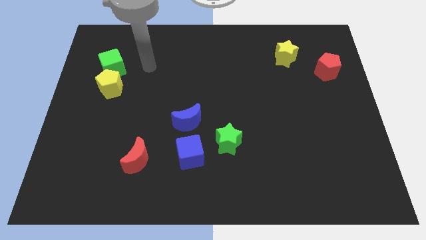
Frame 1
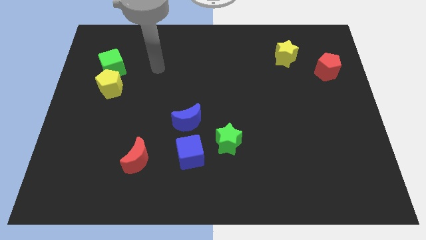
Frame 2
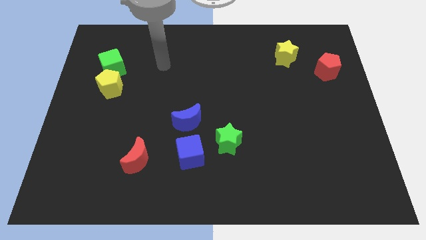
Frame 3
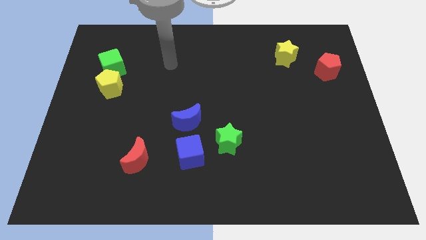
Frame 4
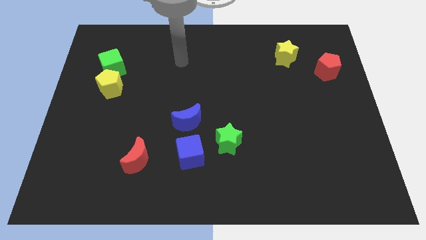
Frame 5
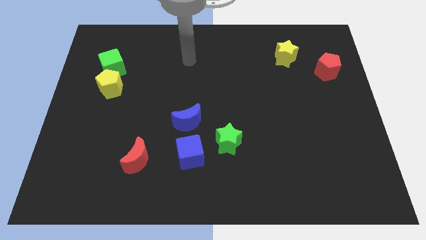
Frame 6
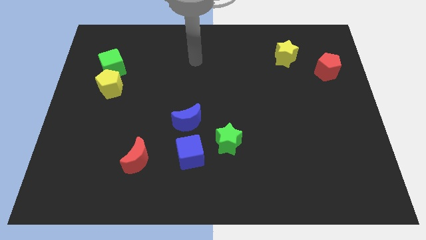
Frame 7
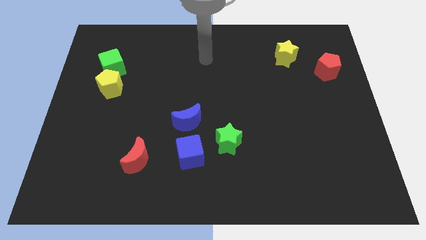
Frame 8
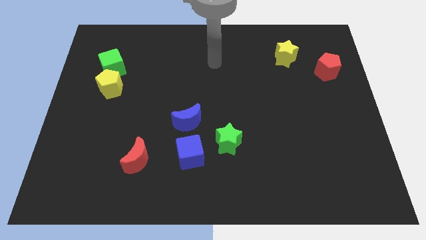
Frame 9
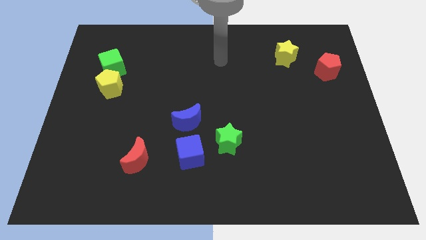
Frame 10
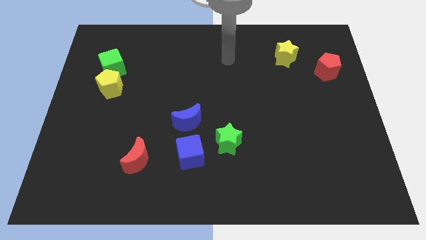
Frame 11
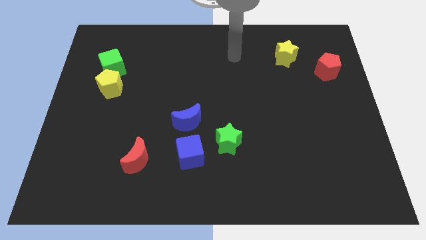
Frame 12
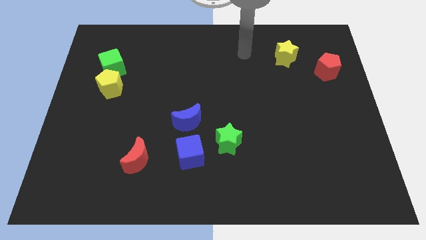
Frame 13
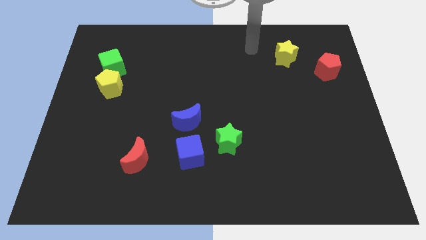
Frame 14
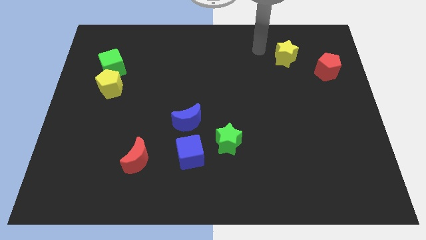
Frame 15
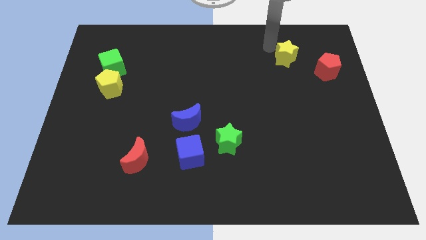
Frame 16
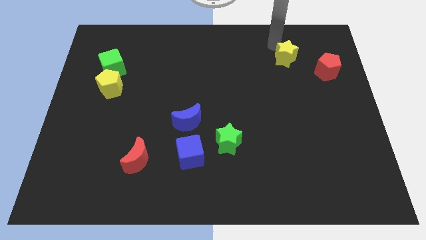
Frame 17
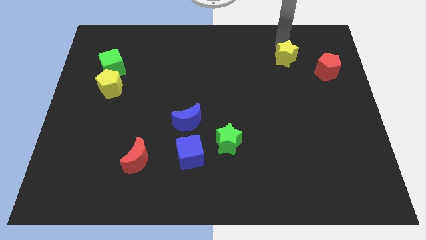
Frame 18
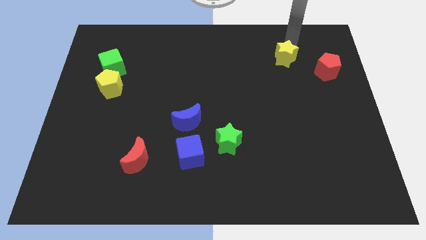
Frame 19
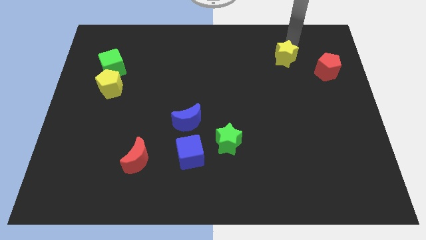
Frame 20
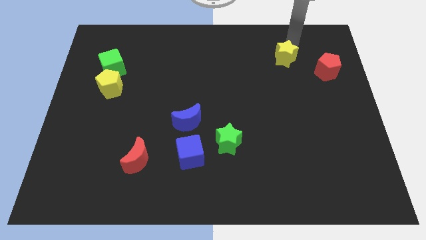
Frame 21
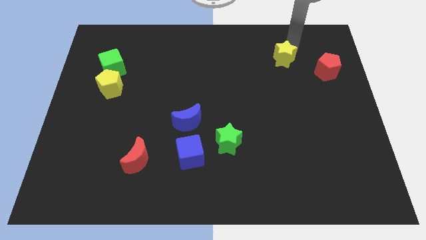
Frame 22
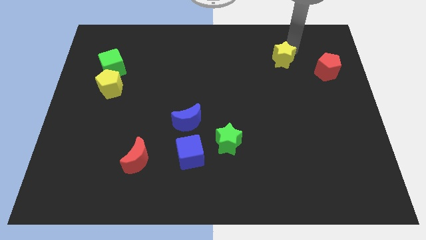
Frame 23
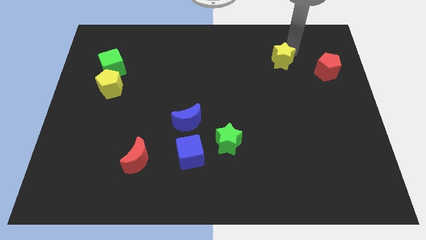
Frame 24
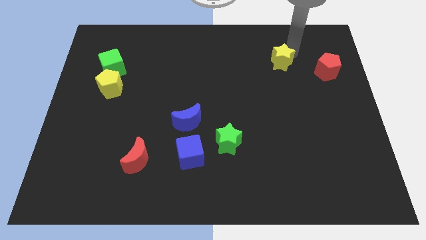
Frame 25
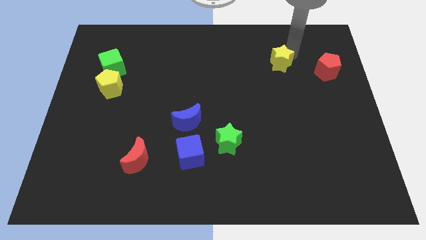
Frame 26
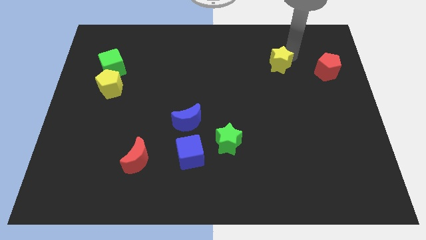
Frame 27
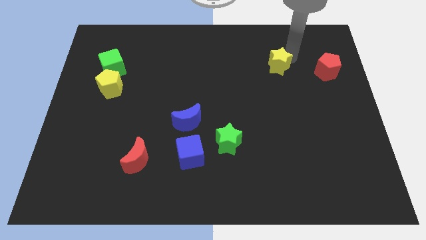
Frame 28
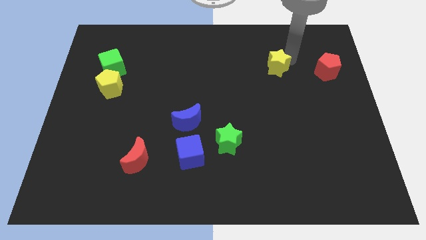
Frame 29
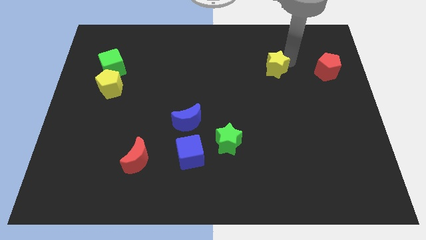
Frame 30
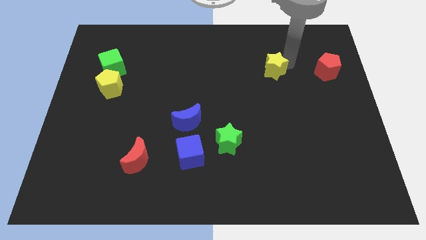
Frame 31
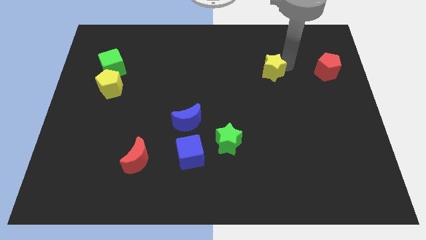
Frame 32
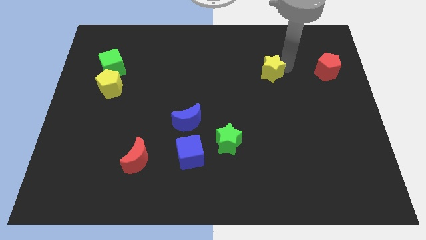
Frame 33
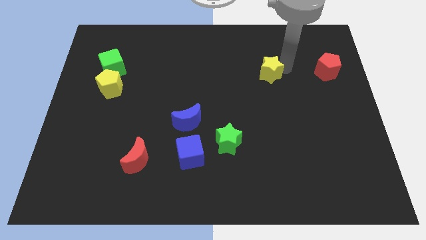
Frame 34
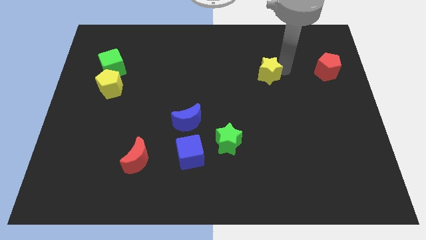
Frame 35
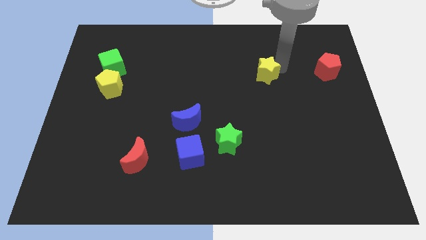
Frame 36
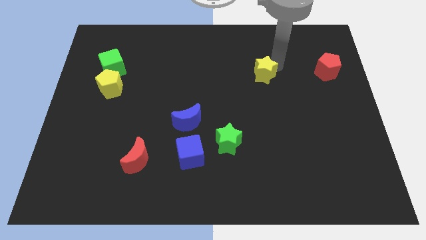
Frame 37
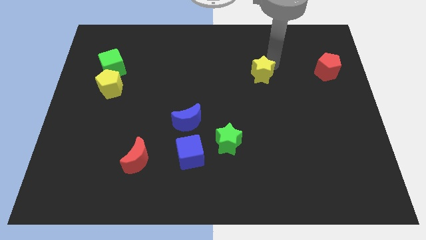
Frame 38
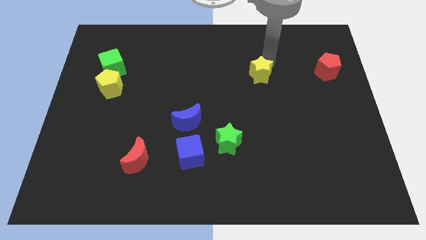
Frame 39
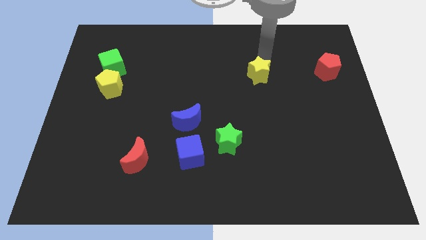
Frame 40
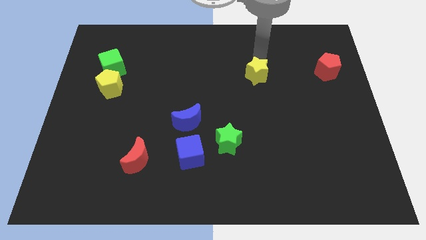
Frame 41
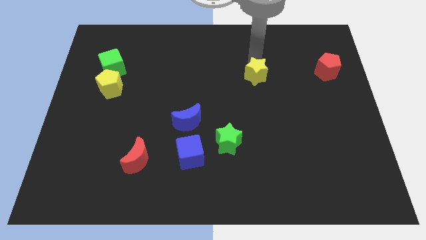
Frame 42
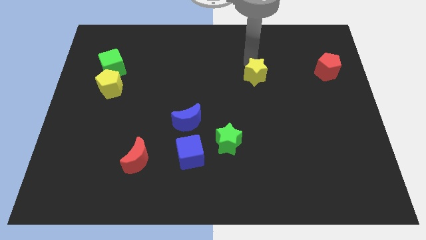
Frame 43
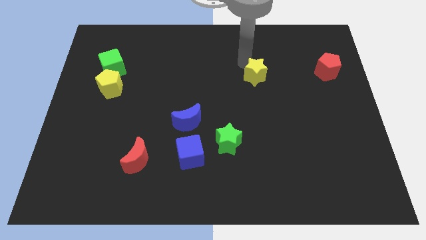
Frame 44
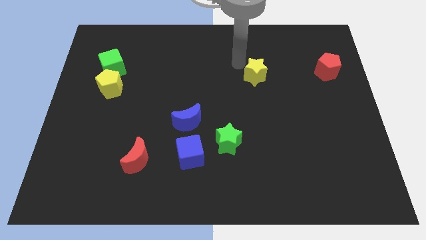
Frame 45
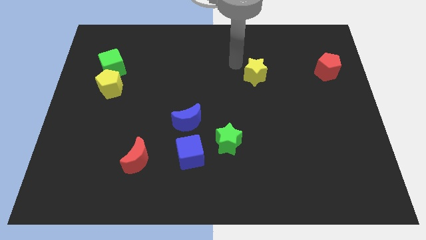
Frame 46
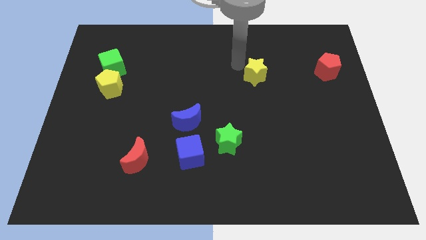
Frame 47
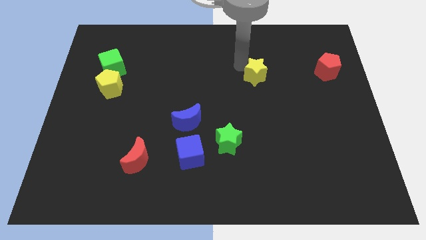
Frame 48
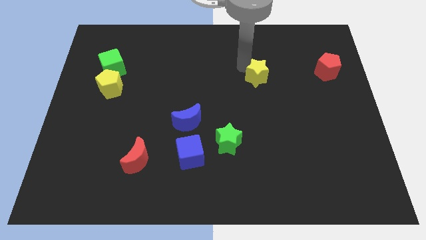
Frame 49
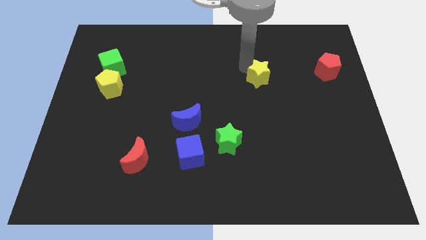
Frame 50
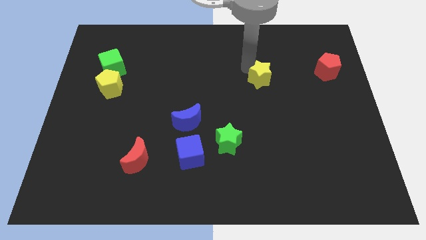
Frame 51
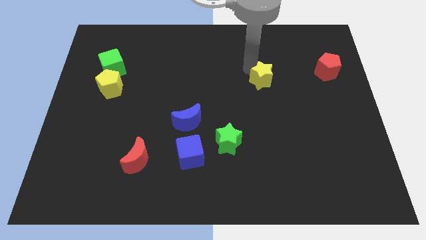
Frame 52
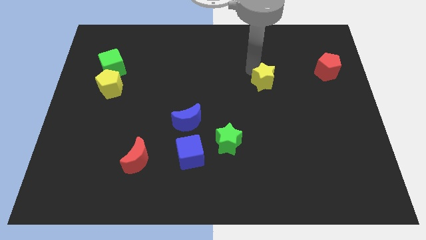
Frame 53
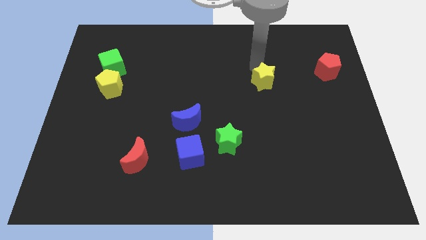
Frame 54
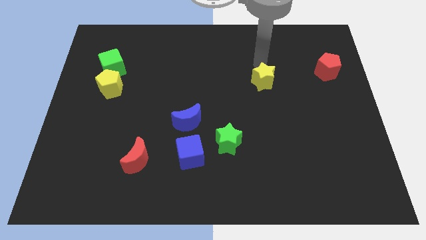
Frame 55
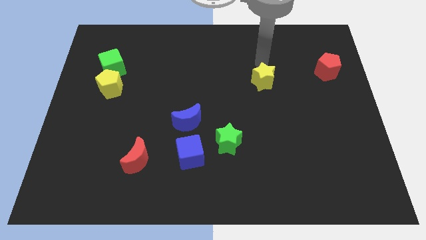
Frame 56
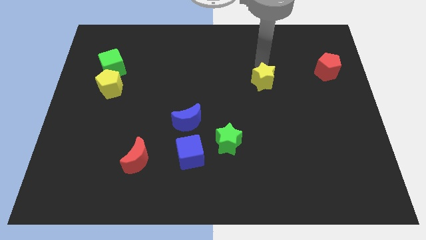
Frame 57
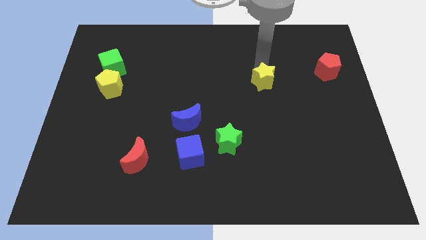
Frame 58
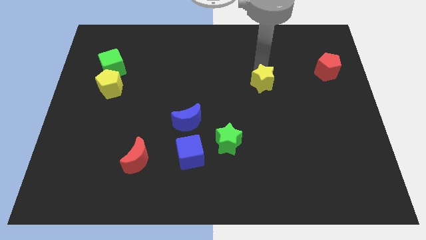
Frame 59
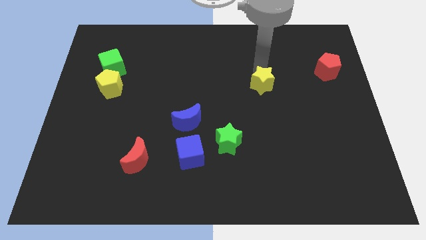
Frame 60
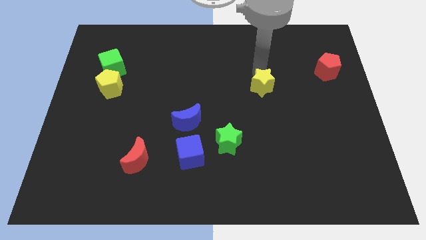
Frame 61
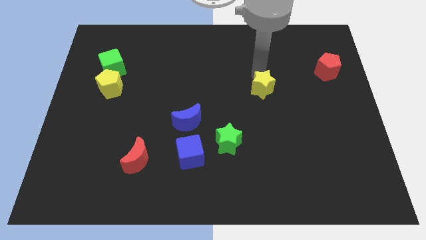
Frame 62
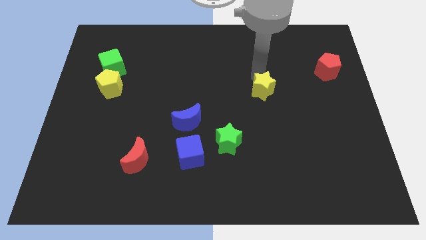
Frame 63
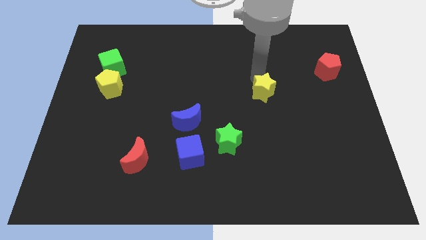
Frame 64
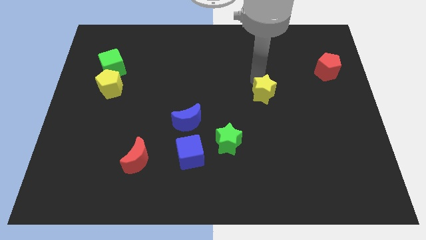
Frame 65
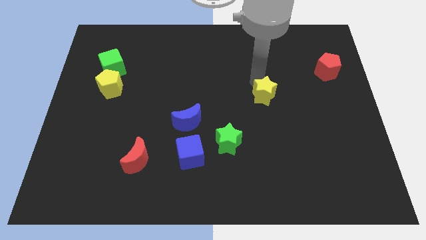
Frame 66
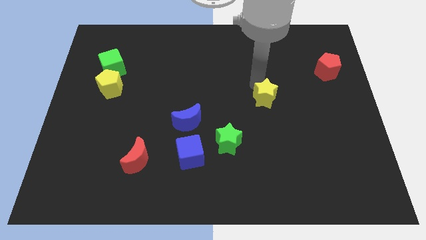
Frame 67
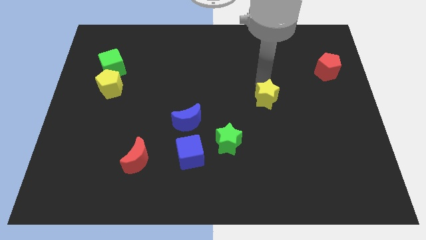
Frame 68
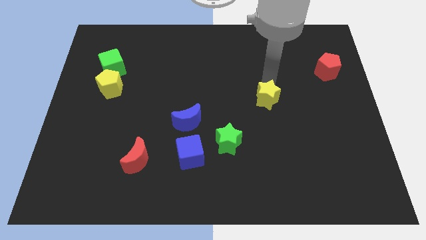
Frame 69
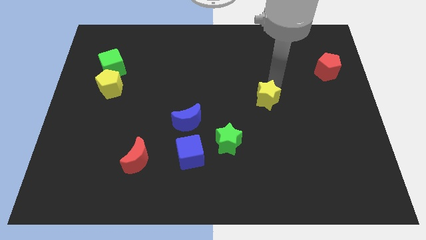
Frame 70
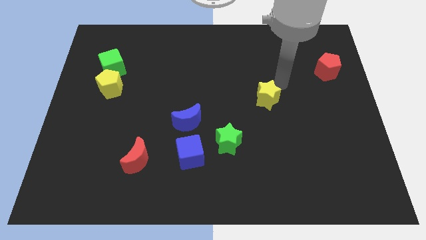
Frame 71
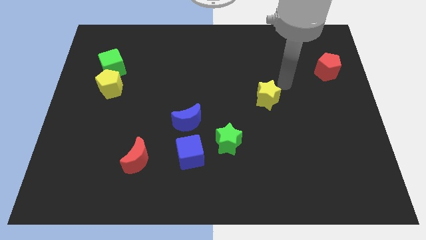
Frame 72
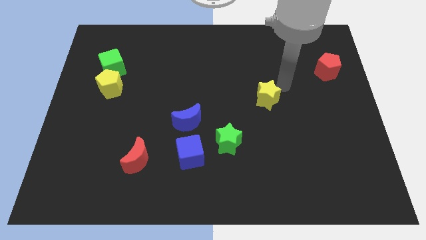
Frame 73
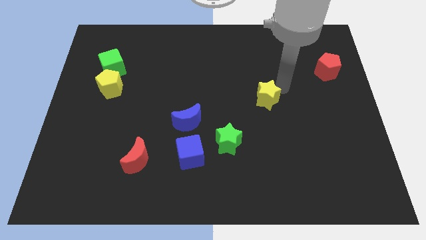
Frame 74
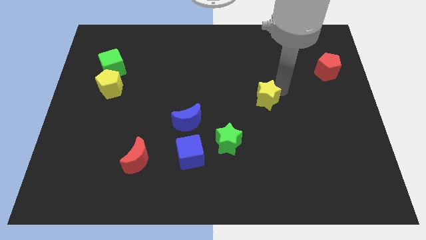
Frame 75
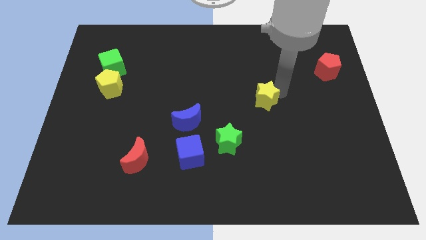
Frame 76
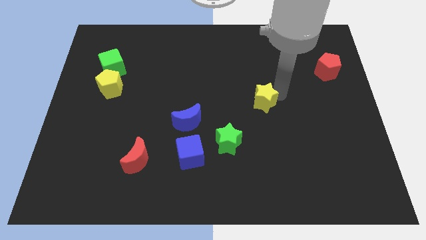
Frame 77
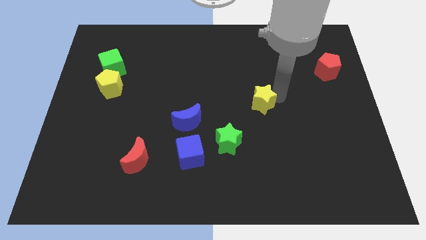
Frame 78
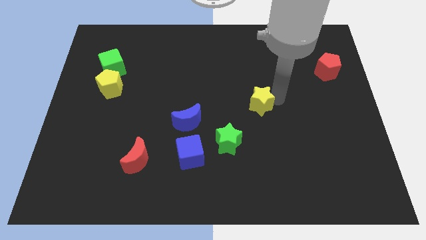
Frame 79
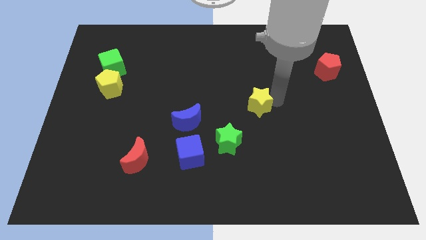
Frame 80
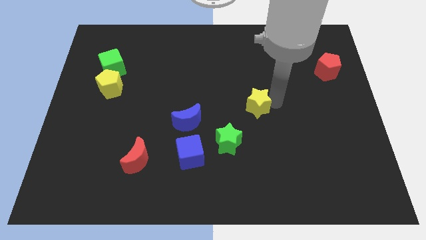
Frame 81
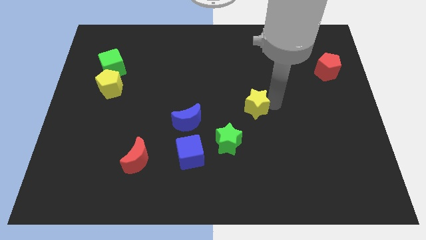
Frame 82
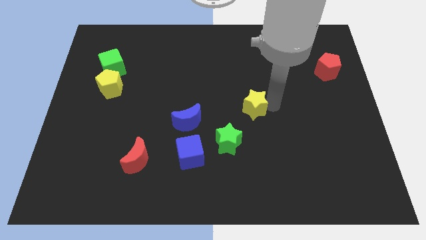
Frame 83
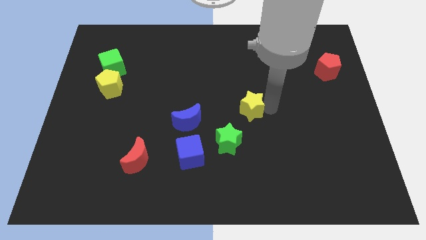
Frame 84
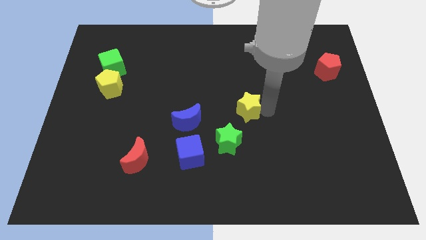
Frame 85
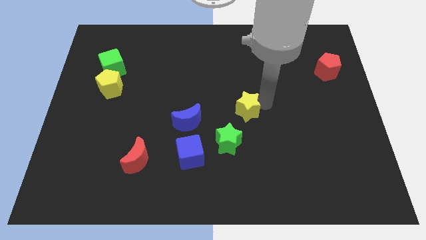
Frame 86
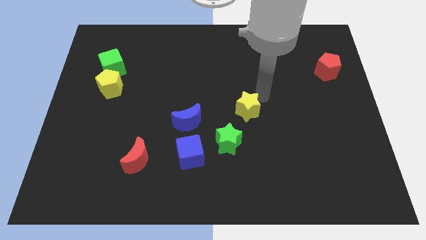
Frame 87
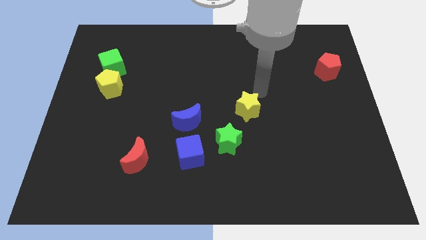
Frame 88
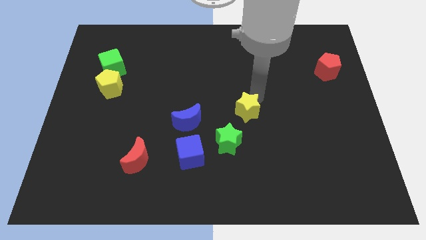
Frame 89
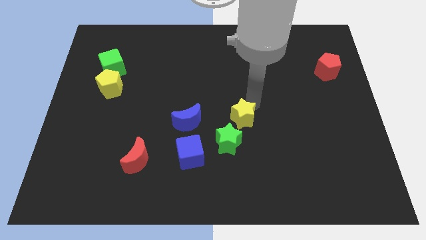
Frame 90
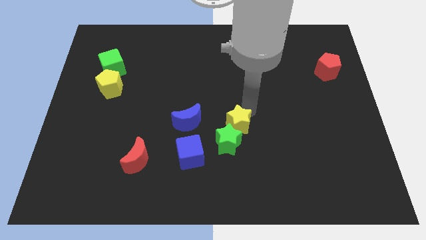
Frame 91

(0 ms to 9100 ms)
push the yellow star to the green star
